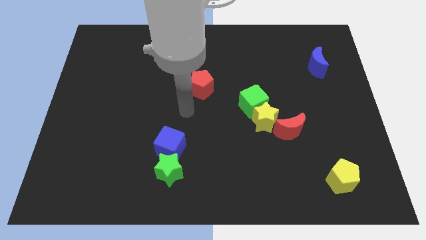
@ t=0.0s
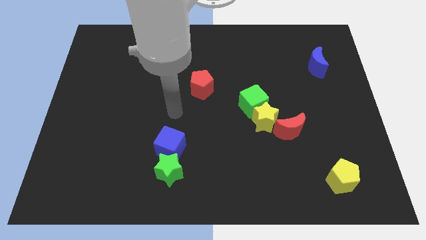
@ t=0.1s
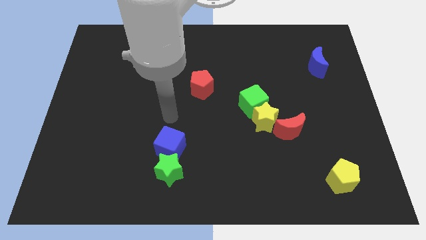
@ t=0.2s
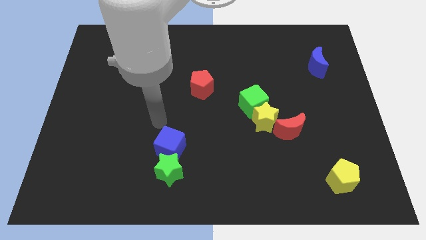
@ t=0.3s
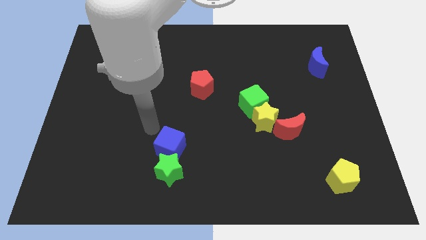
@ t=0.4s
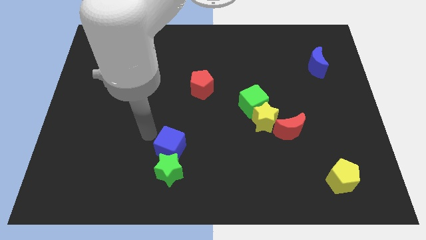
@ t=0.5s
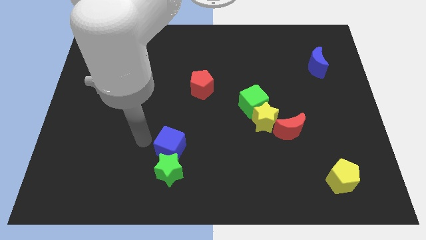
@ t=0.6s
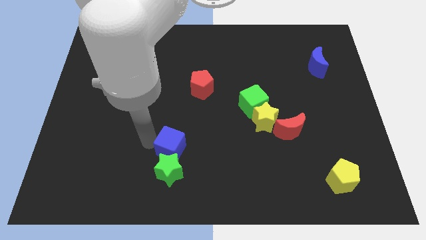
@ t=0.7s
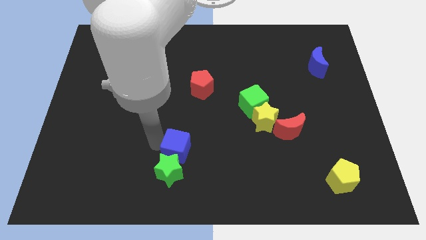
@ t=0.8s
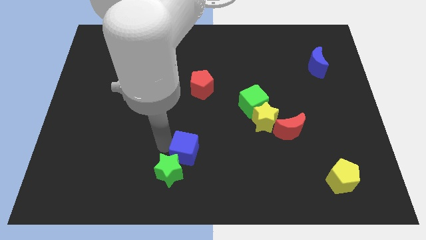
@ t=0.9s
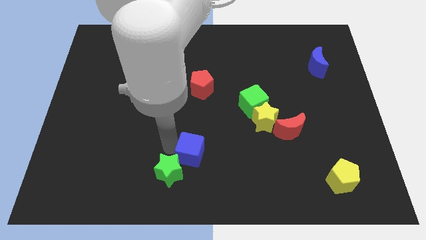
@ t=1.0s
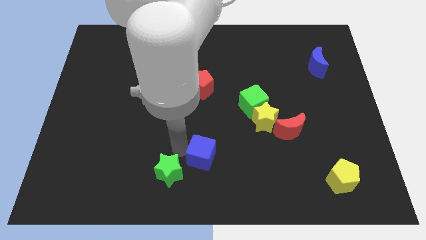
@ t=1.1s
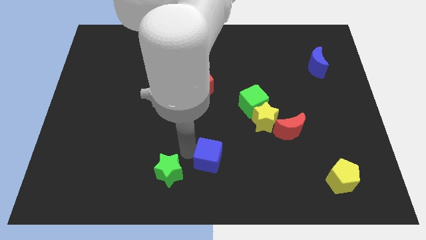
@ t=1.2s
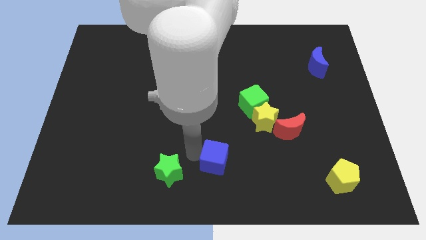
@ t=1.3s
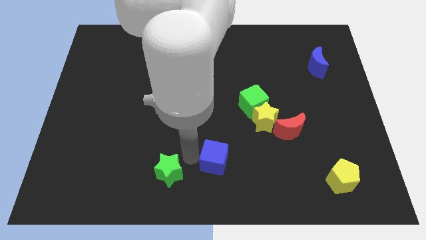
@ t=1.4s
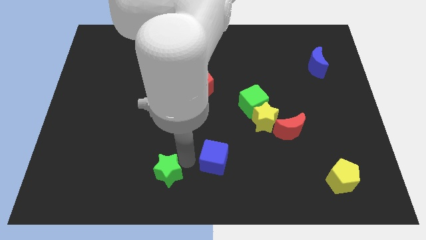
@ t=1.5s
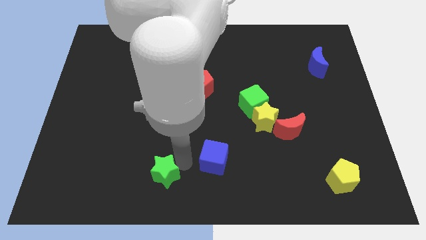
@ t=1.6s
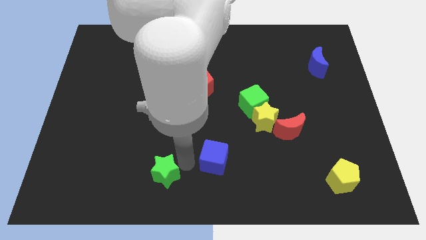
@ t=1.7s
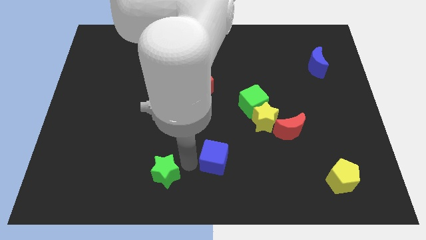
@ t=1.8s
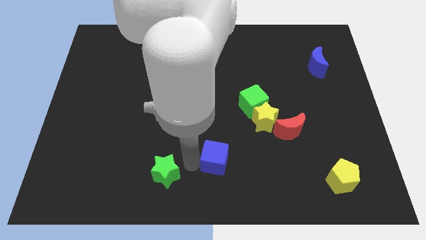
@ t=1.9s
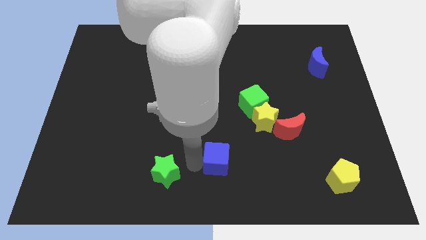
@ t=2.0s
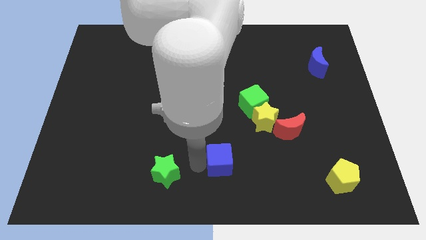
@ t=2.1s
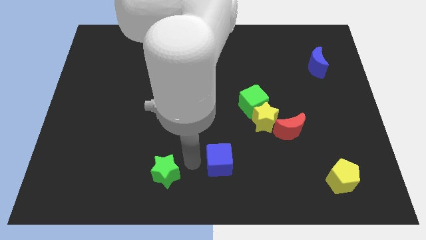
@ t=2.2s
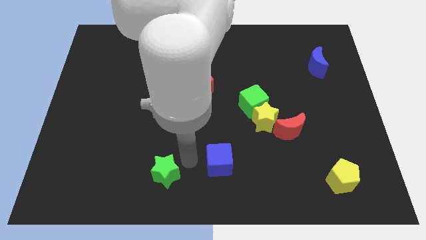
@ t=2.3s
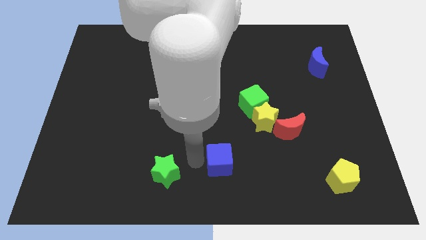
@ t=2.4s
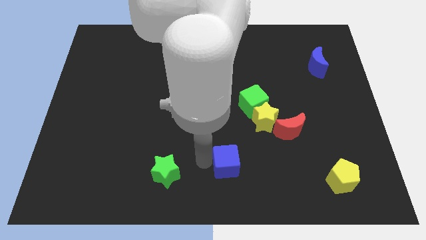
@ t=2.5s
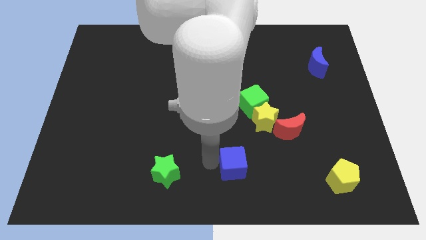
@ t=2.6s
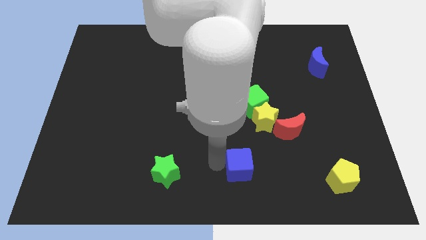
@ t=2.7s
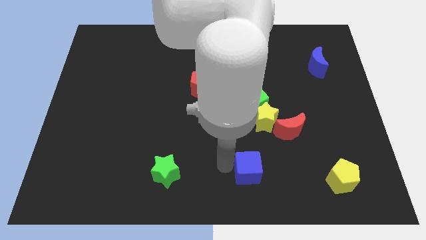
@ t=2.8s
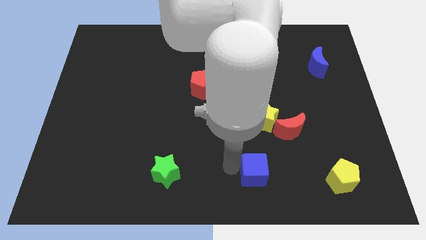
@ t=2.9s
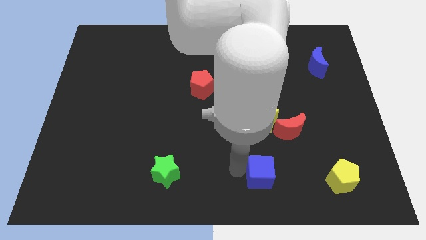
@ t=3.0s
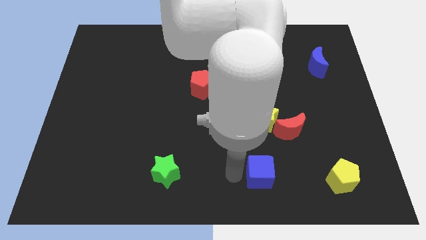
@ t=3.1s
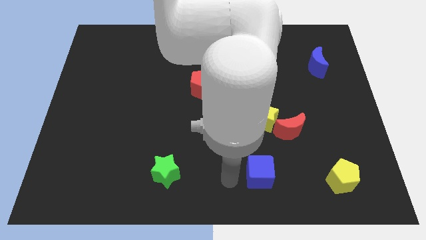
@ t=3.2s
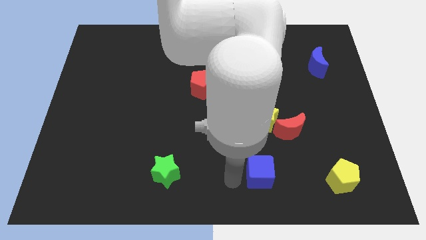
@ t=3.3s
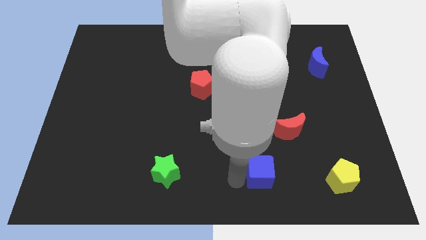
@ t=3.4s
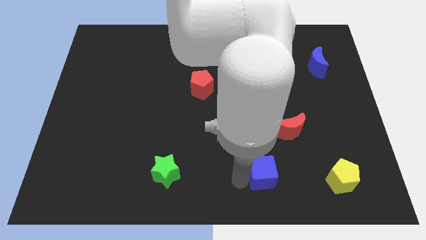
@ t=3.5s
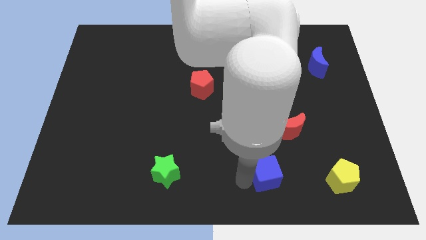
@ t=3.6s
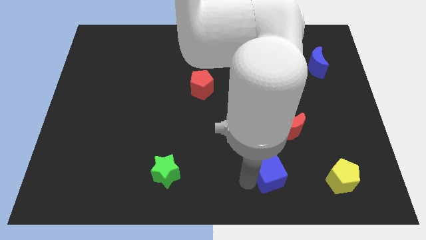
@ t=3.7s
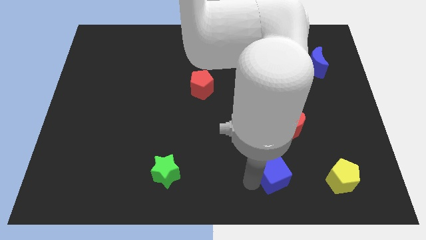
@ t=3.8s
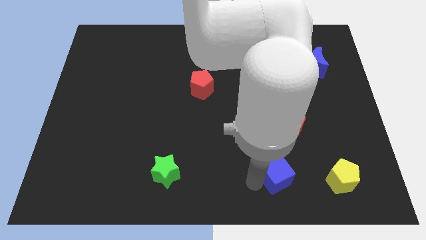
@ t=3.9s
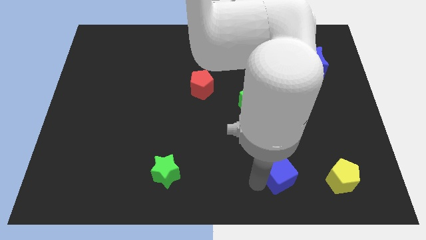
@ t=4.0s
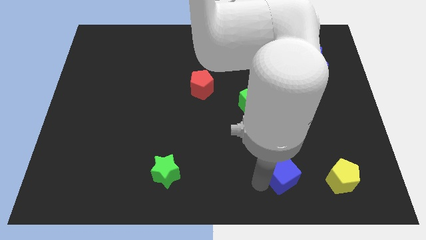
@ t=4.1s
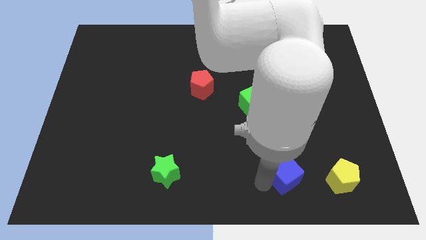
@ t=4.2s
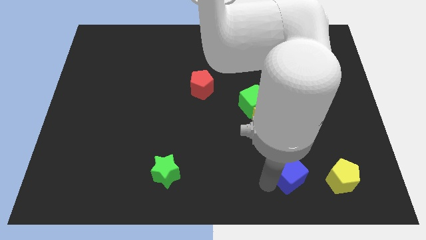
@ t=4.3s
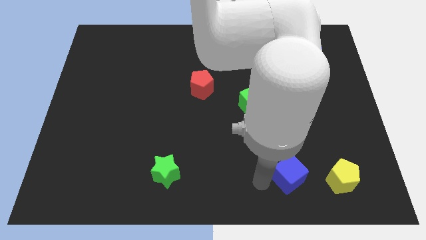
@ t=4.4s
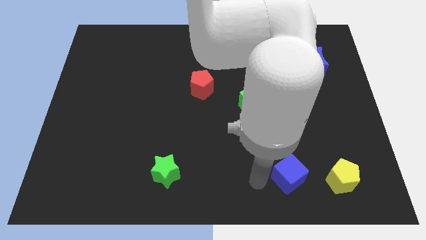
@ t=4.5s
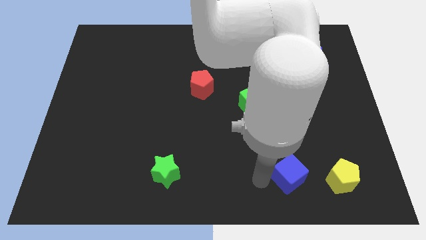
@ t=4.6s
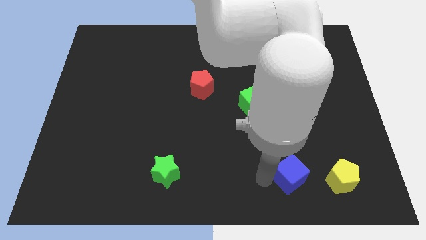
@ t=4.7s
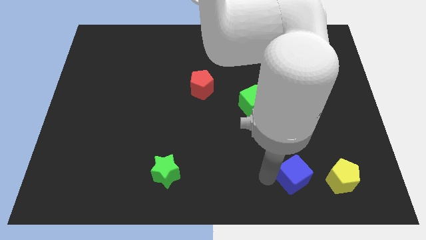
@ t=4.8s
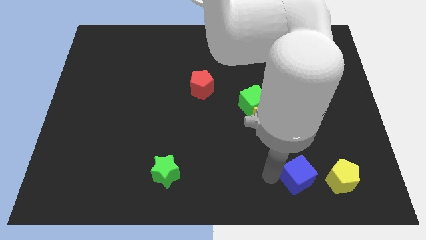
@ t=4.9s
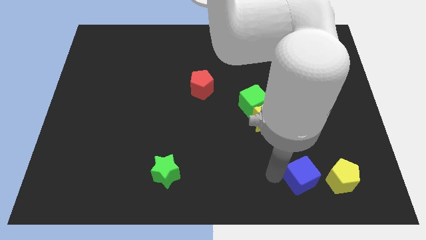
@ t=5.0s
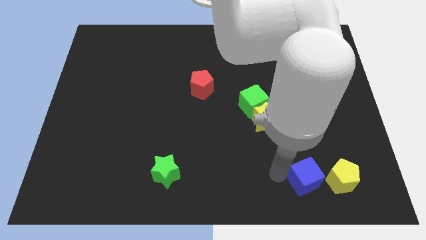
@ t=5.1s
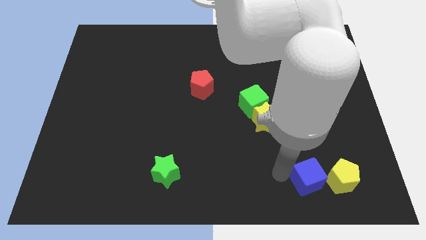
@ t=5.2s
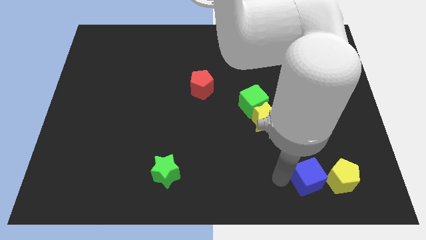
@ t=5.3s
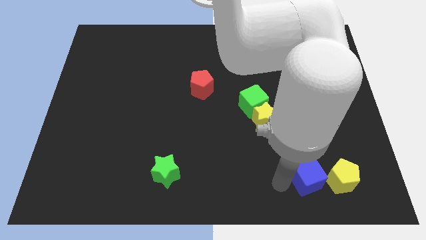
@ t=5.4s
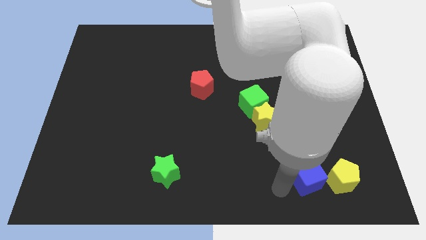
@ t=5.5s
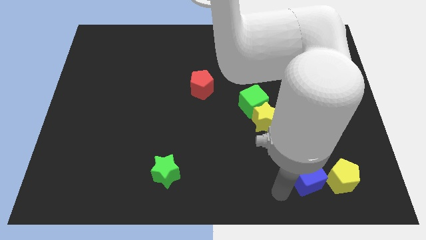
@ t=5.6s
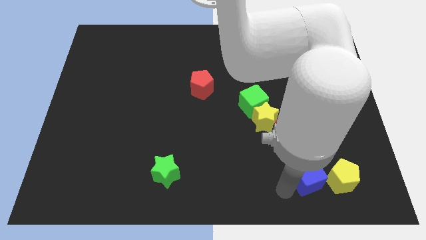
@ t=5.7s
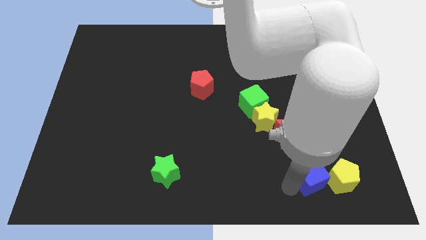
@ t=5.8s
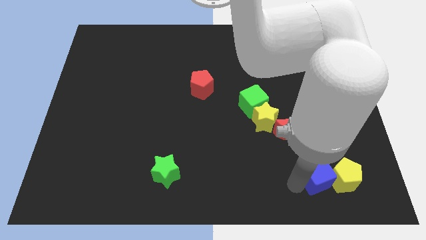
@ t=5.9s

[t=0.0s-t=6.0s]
slide the blue cube close to the yellow pentagon

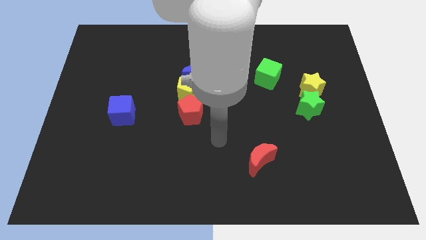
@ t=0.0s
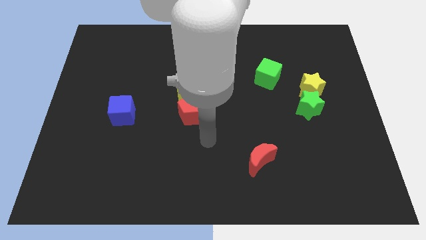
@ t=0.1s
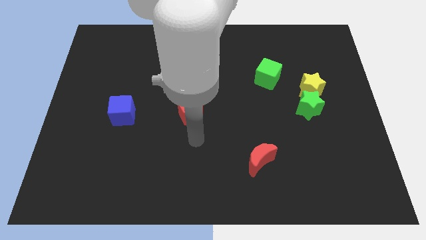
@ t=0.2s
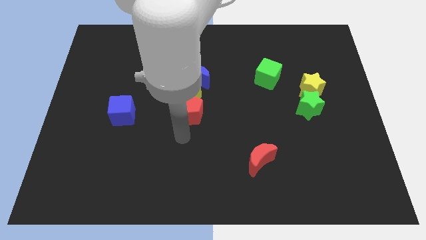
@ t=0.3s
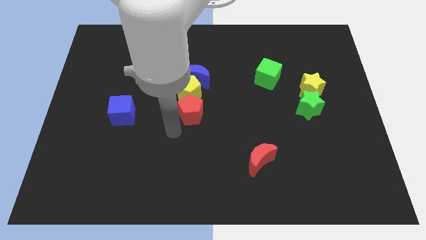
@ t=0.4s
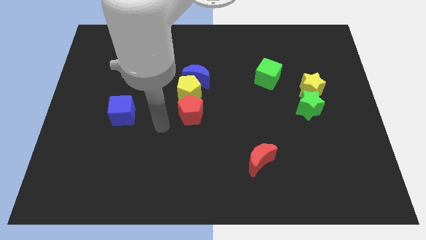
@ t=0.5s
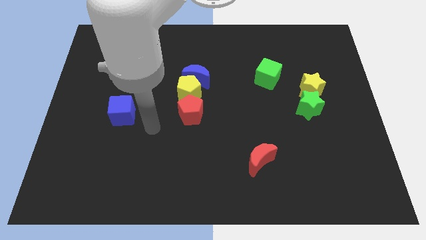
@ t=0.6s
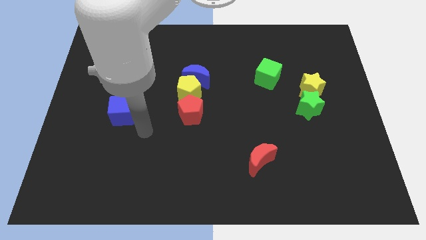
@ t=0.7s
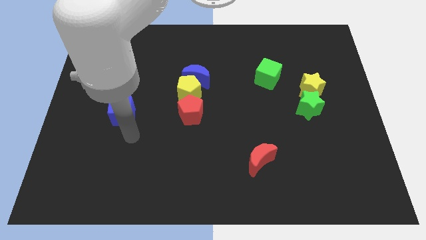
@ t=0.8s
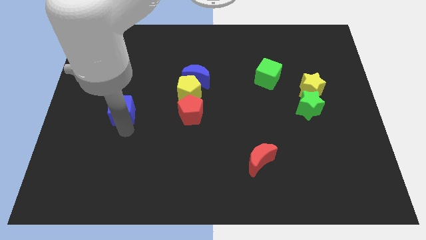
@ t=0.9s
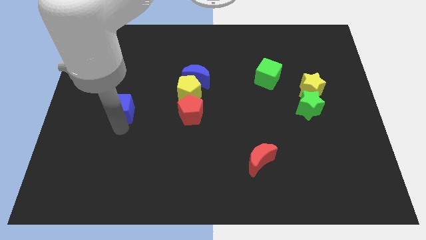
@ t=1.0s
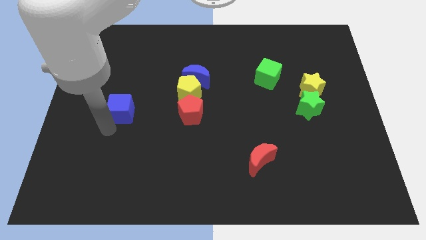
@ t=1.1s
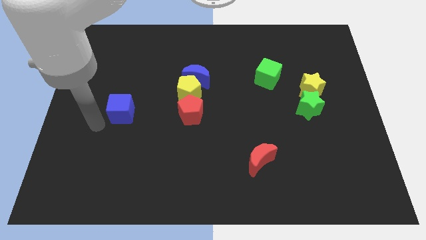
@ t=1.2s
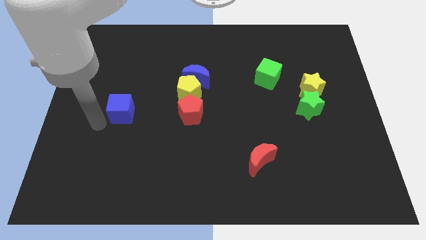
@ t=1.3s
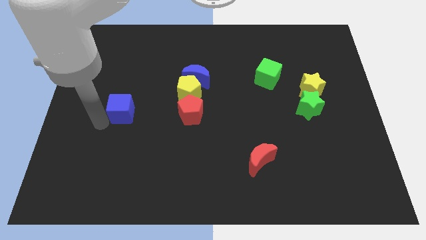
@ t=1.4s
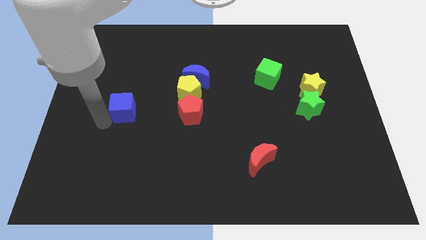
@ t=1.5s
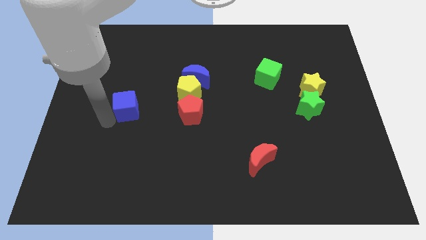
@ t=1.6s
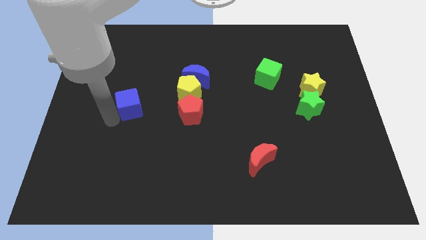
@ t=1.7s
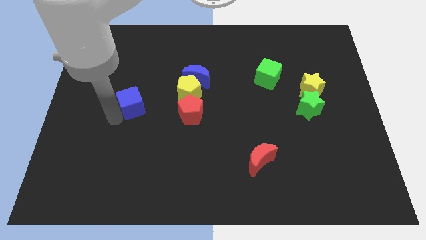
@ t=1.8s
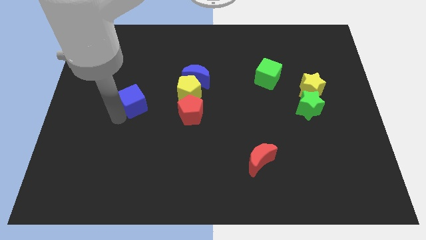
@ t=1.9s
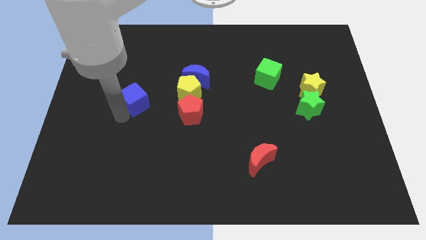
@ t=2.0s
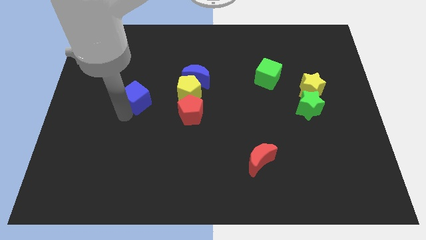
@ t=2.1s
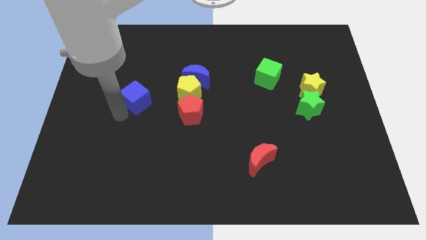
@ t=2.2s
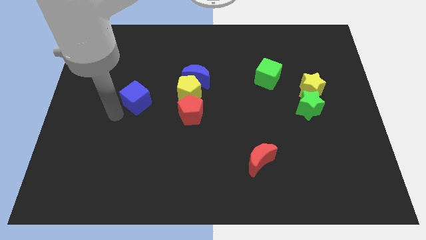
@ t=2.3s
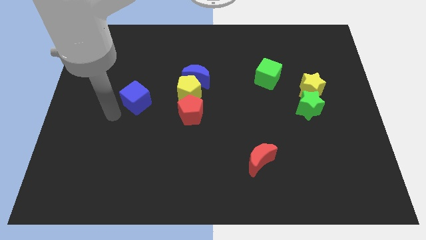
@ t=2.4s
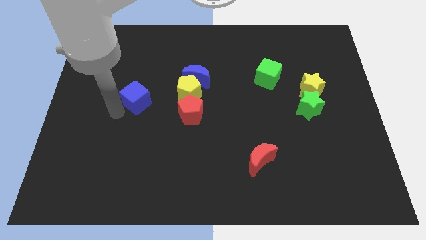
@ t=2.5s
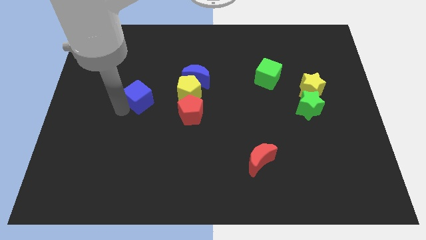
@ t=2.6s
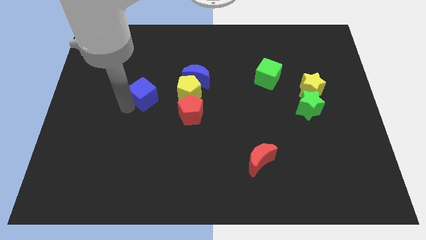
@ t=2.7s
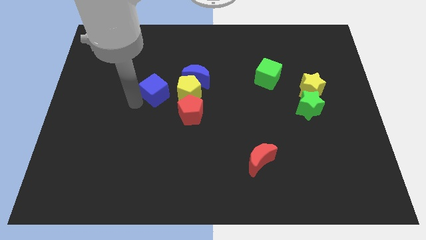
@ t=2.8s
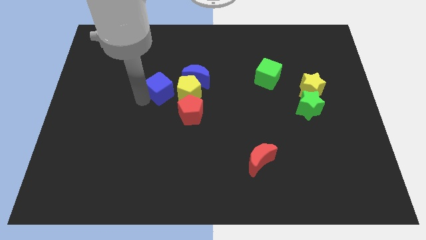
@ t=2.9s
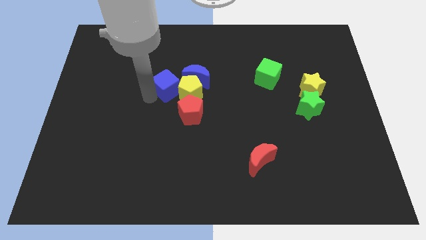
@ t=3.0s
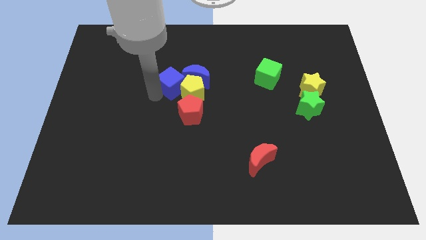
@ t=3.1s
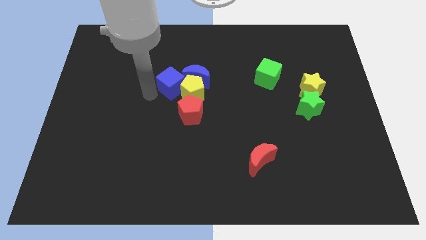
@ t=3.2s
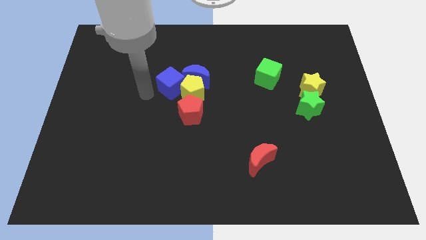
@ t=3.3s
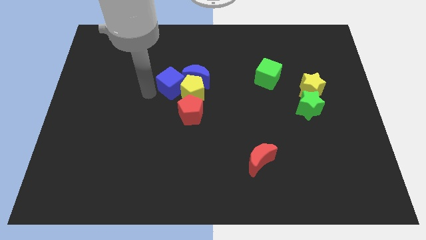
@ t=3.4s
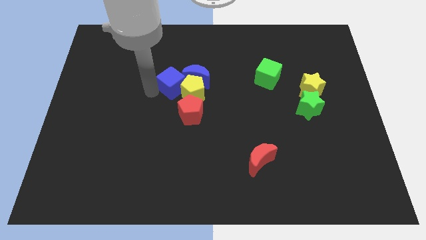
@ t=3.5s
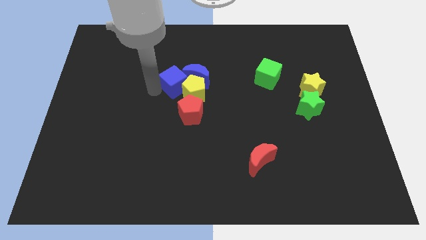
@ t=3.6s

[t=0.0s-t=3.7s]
put the blue cube towards the blue moon
